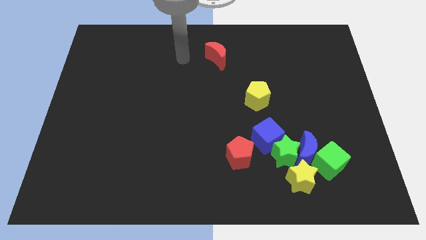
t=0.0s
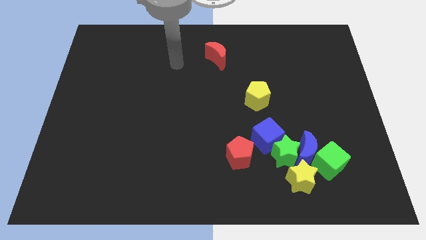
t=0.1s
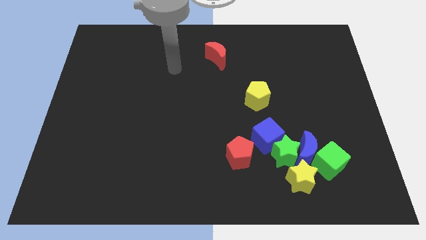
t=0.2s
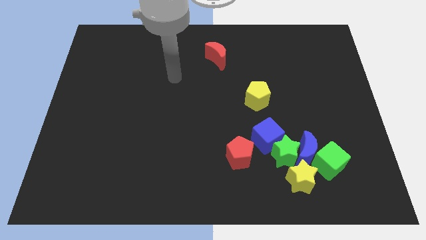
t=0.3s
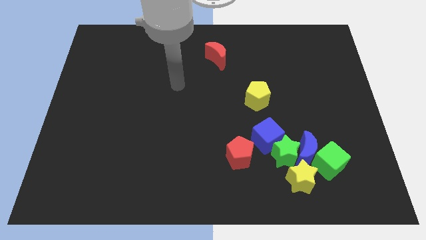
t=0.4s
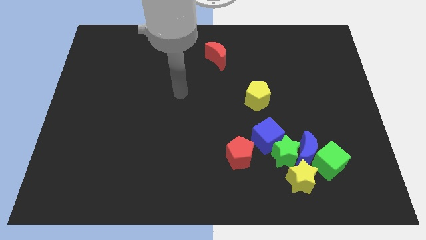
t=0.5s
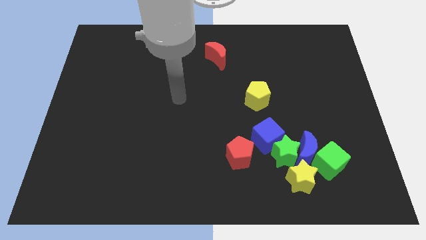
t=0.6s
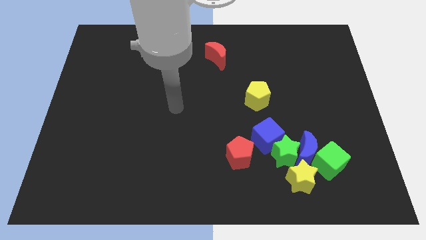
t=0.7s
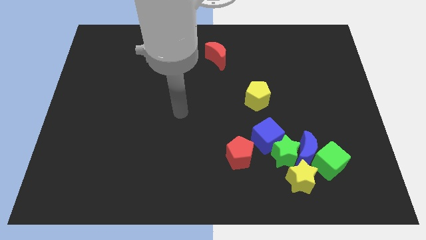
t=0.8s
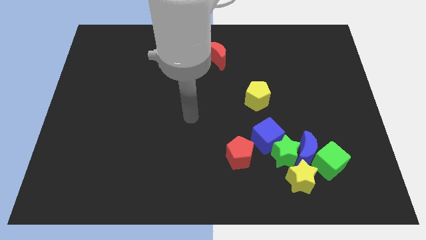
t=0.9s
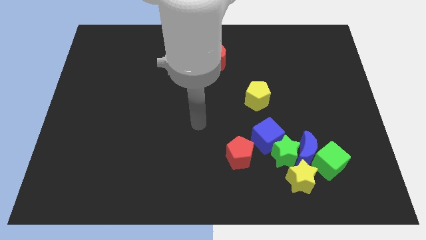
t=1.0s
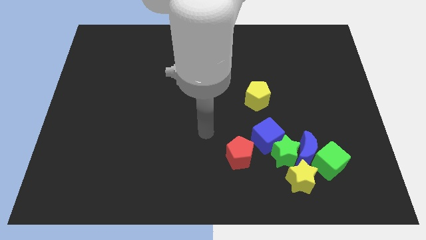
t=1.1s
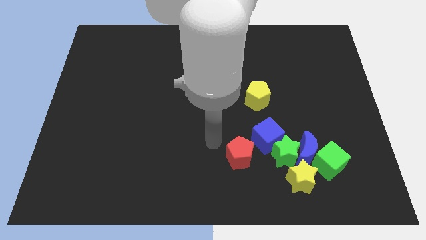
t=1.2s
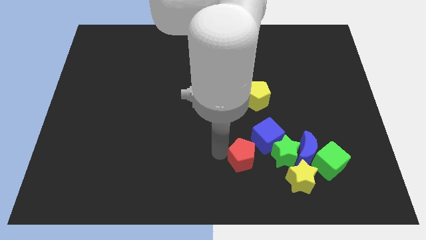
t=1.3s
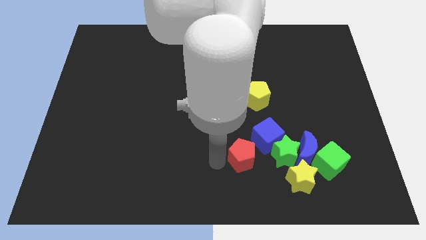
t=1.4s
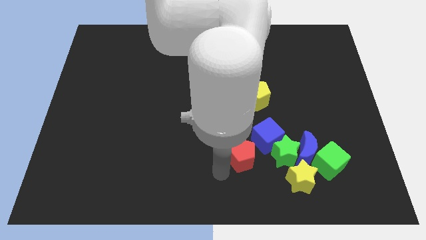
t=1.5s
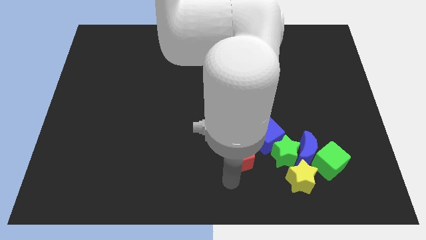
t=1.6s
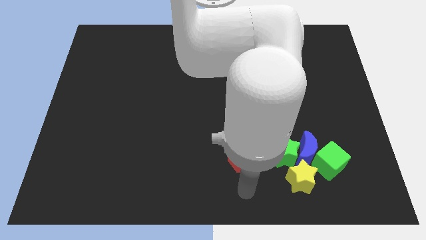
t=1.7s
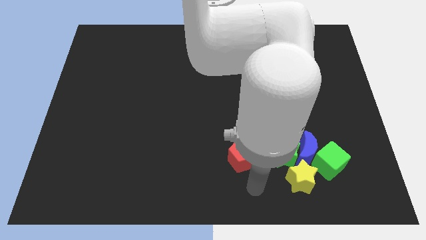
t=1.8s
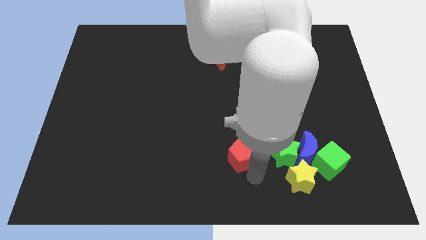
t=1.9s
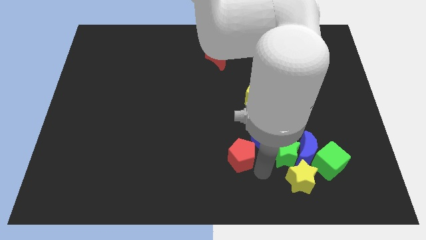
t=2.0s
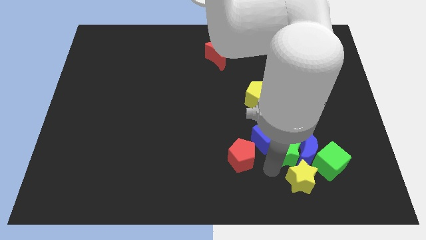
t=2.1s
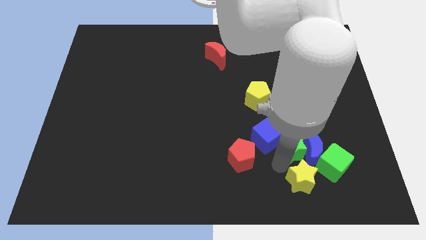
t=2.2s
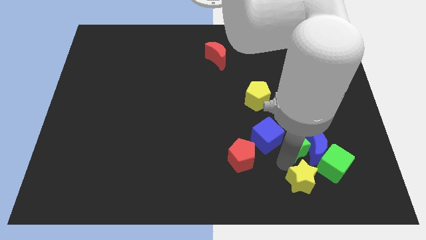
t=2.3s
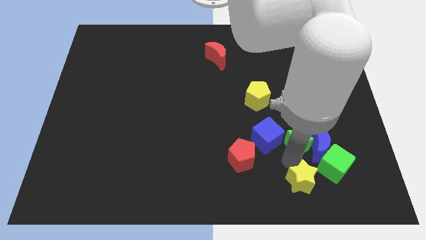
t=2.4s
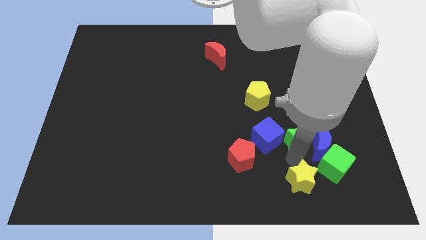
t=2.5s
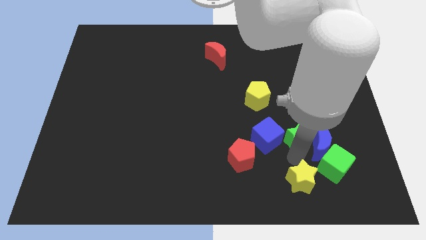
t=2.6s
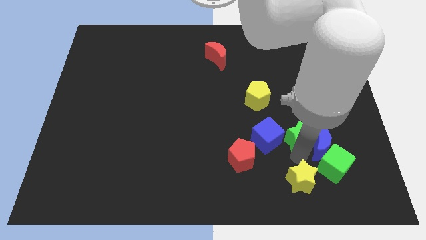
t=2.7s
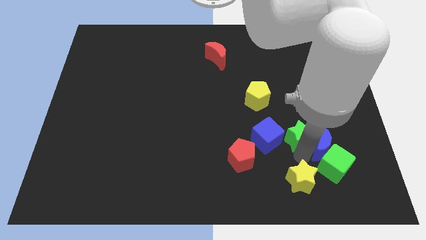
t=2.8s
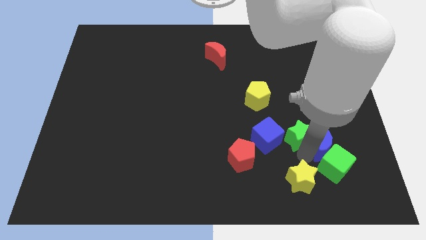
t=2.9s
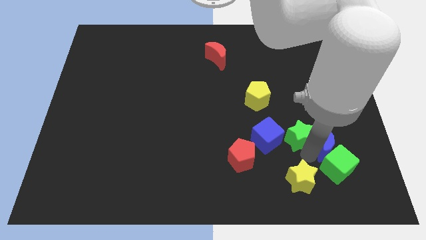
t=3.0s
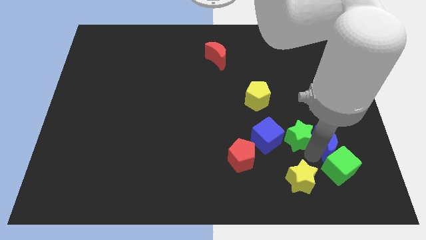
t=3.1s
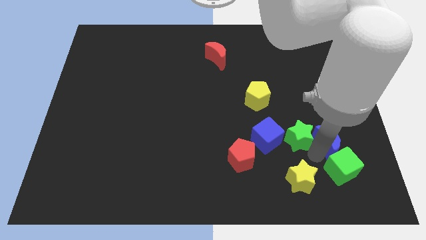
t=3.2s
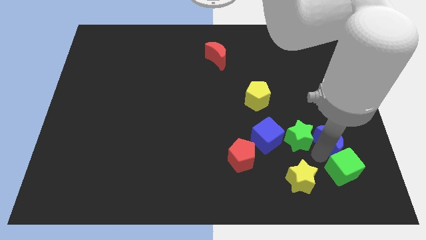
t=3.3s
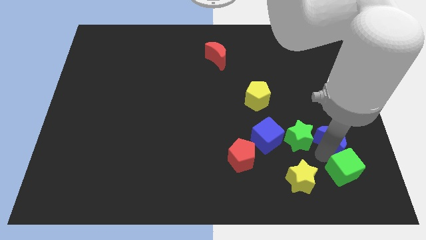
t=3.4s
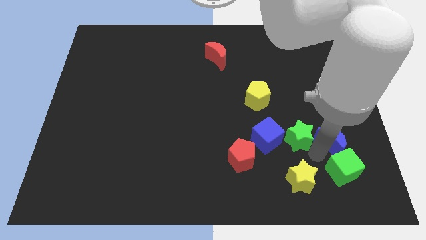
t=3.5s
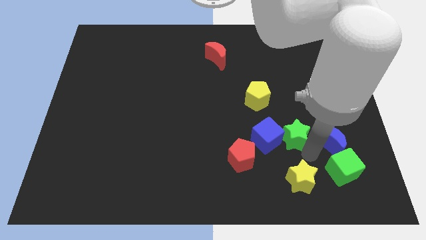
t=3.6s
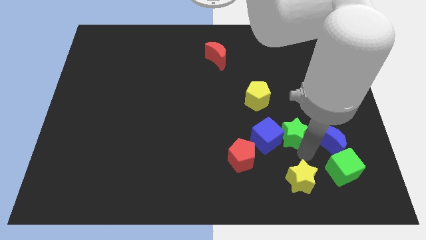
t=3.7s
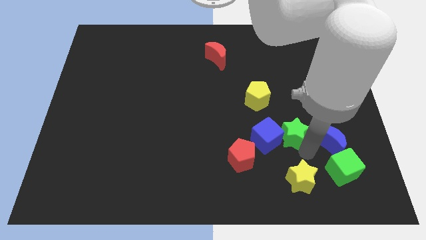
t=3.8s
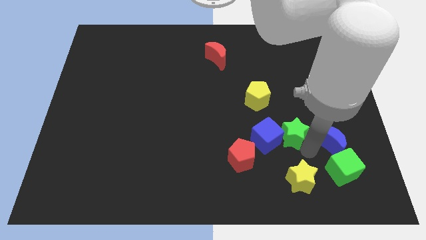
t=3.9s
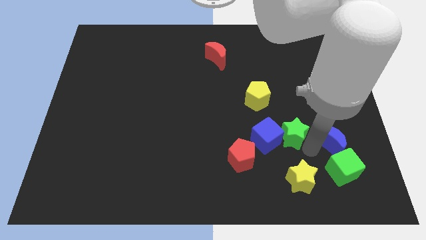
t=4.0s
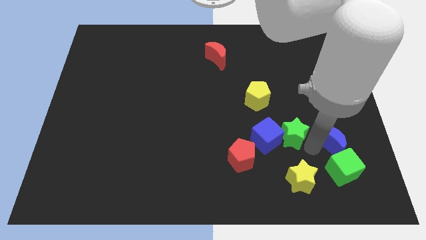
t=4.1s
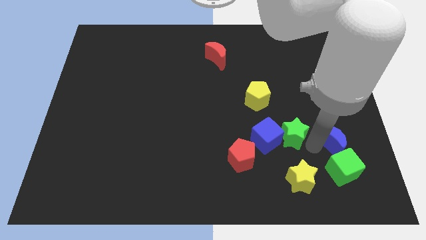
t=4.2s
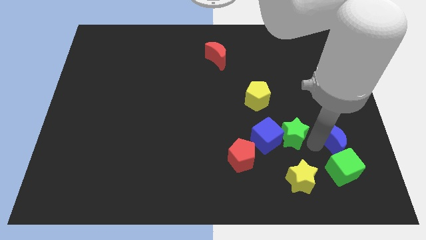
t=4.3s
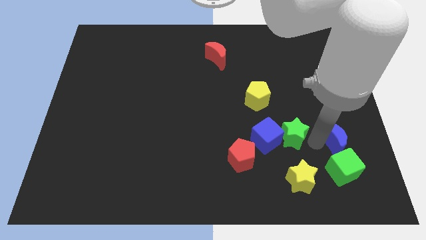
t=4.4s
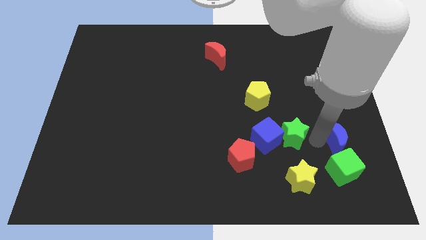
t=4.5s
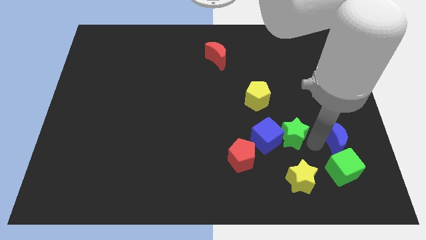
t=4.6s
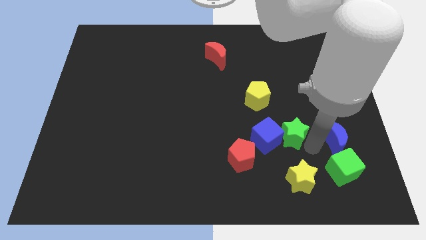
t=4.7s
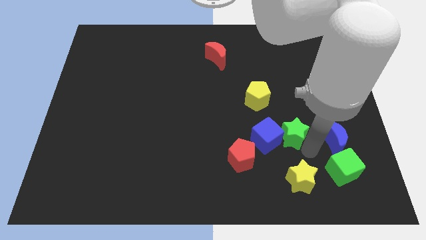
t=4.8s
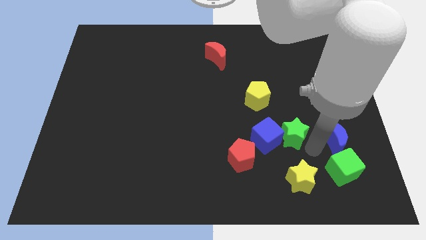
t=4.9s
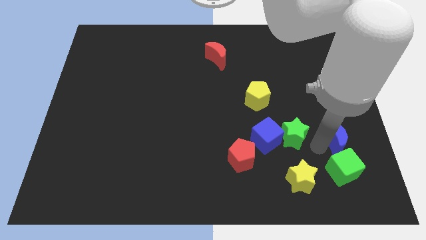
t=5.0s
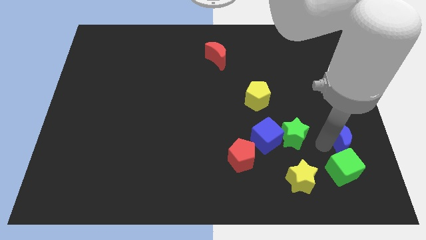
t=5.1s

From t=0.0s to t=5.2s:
separate the blue moon from the group of blocks

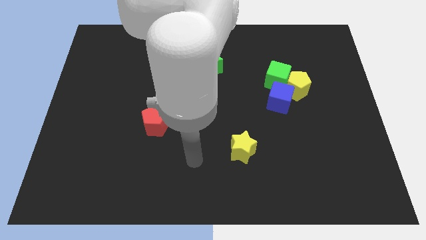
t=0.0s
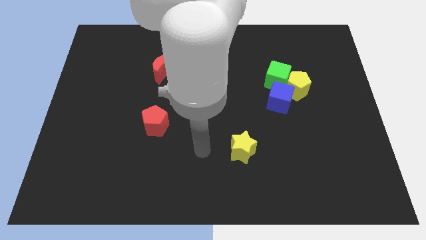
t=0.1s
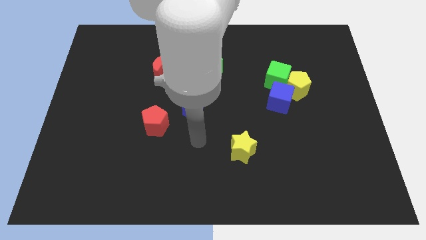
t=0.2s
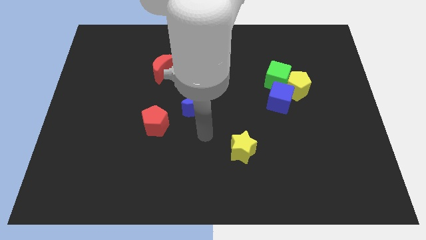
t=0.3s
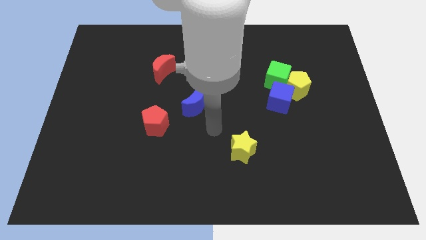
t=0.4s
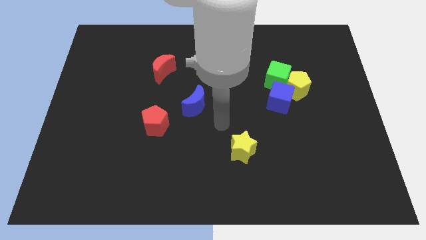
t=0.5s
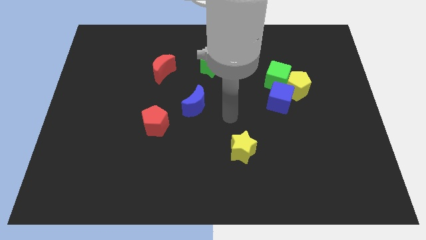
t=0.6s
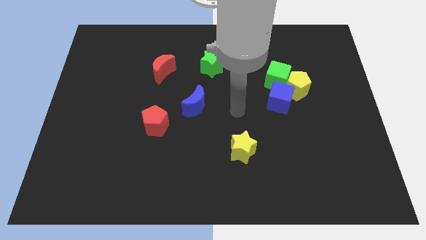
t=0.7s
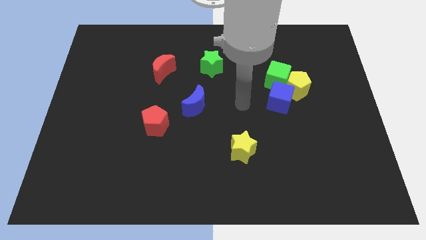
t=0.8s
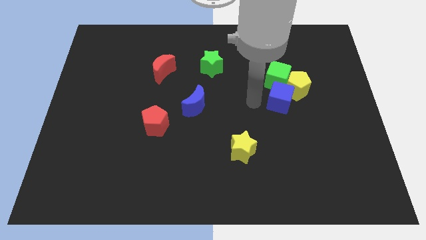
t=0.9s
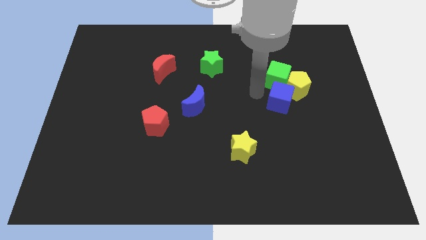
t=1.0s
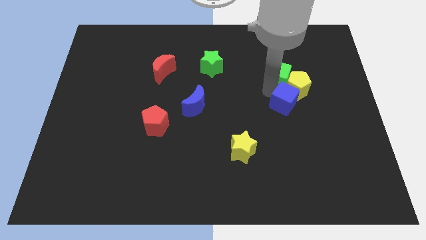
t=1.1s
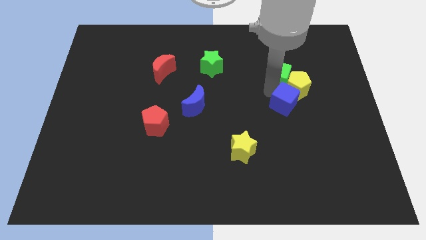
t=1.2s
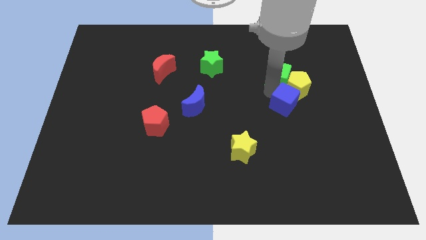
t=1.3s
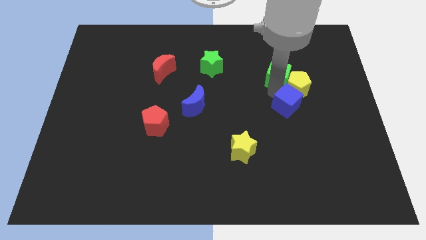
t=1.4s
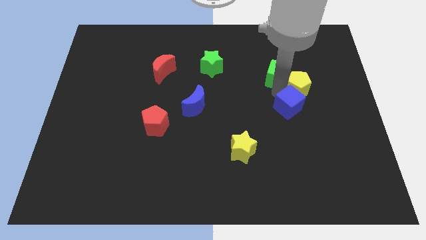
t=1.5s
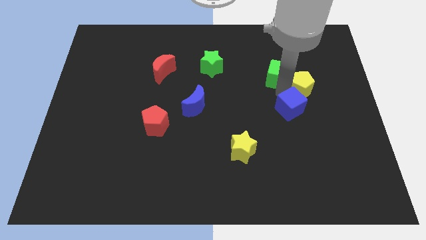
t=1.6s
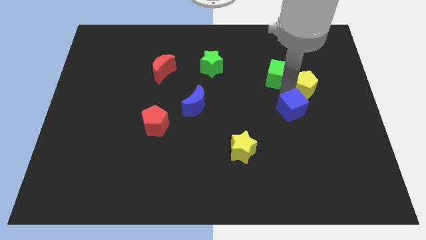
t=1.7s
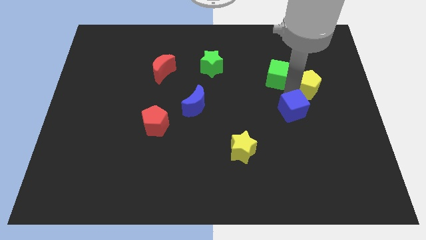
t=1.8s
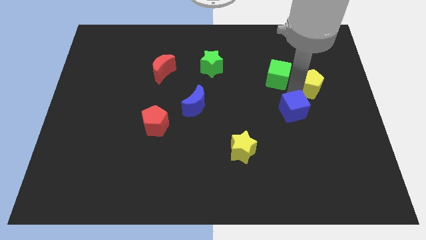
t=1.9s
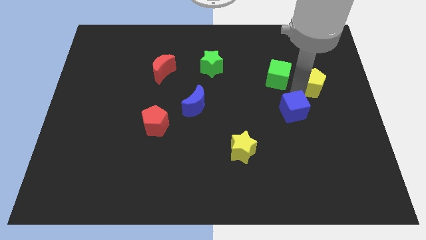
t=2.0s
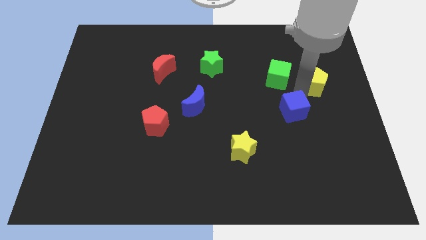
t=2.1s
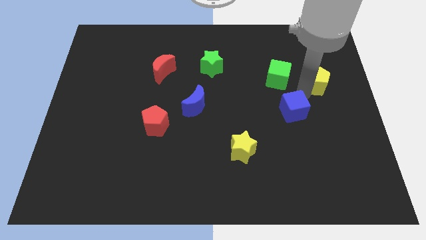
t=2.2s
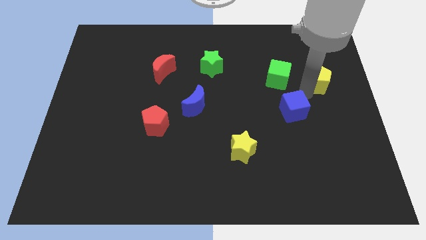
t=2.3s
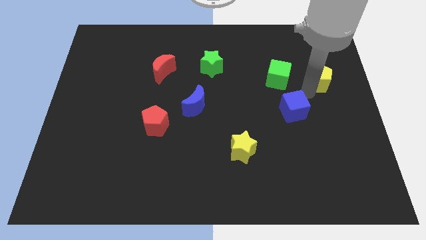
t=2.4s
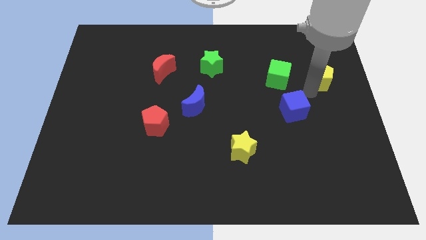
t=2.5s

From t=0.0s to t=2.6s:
move the yellow pentagon away from the green cube and blue cube

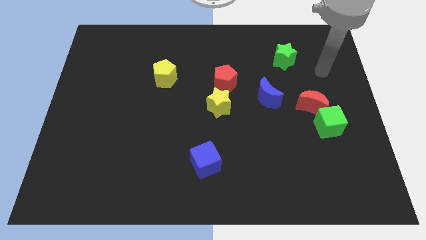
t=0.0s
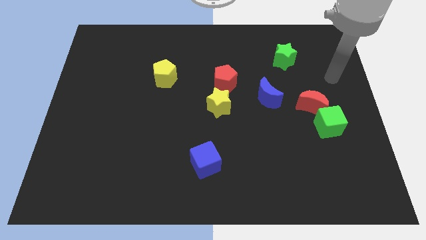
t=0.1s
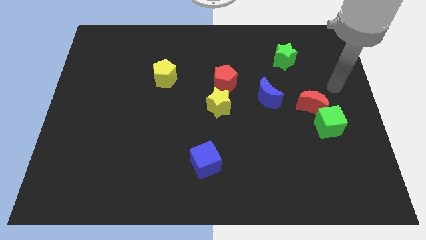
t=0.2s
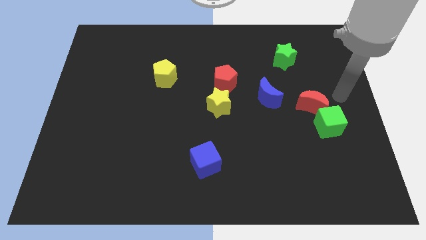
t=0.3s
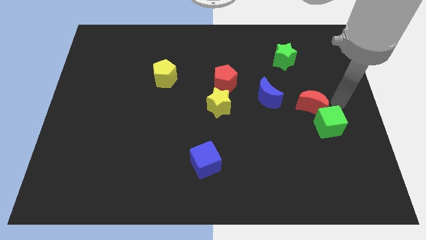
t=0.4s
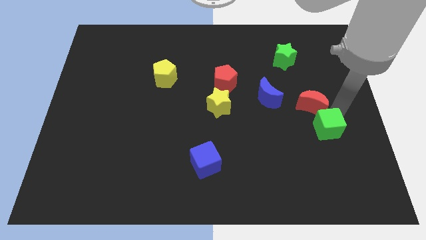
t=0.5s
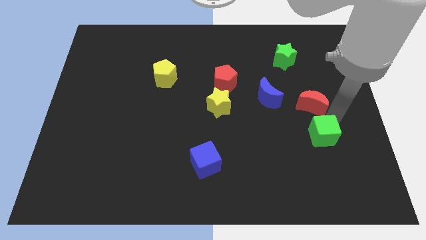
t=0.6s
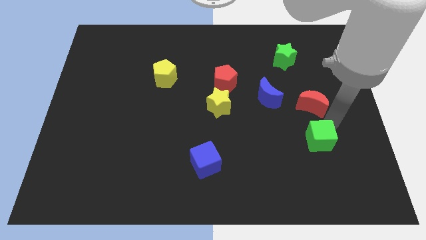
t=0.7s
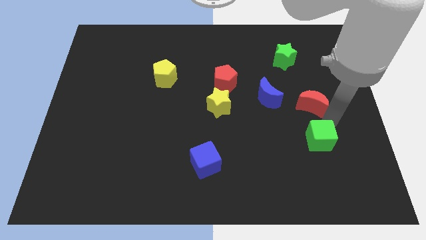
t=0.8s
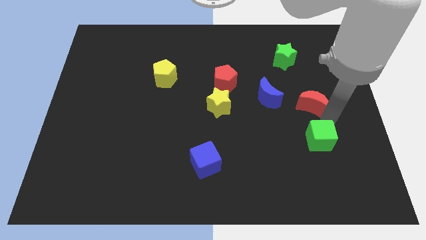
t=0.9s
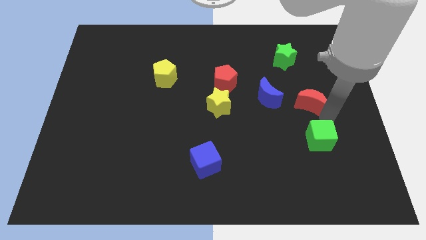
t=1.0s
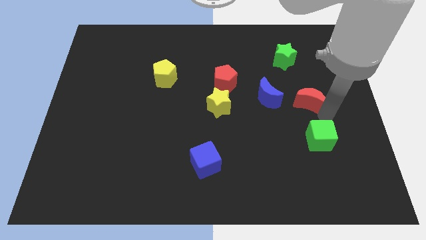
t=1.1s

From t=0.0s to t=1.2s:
pull the red moon apart from the green cube

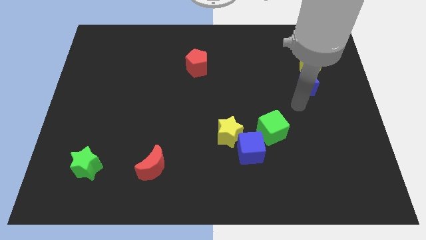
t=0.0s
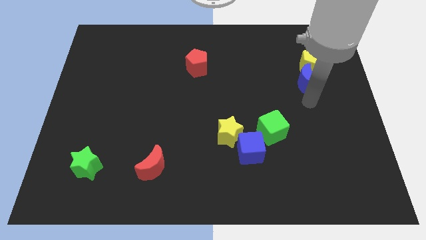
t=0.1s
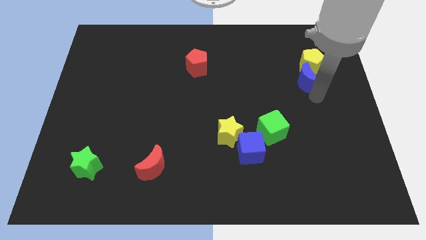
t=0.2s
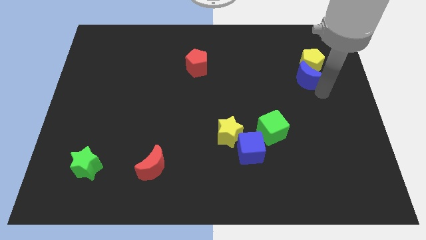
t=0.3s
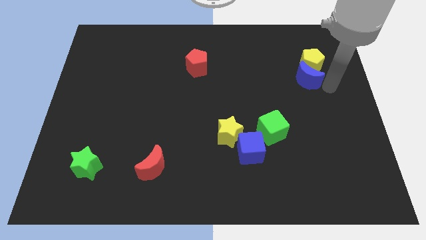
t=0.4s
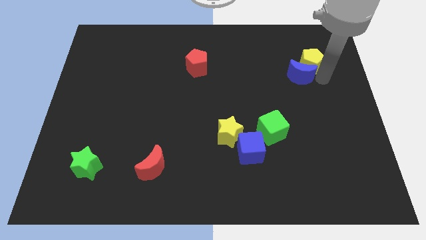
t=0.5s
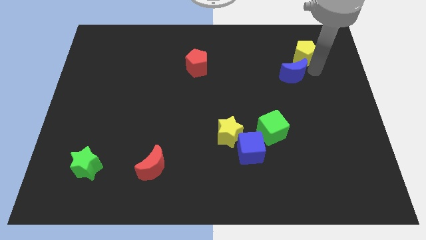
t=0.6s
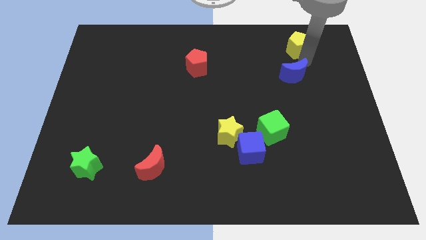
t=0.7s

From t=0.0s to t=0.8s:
pull the blue moon apart from the yellow pentagon
